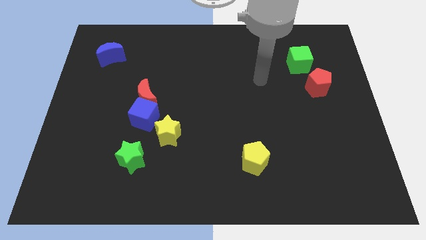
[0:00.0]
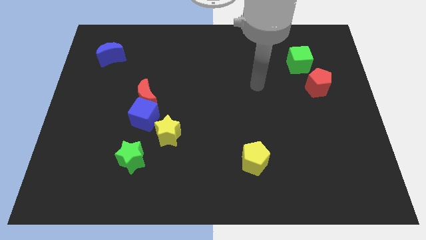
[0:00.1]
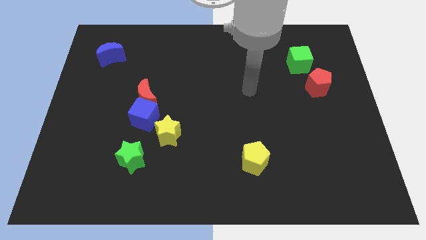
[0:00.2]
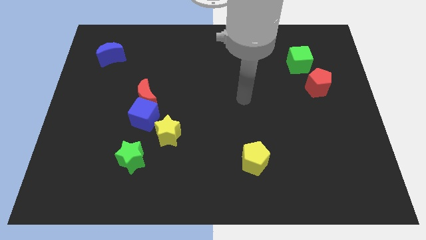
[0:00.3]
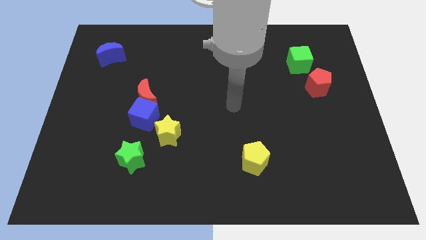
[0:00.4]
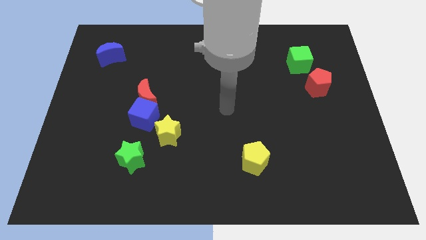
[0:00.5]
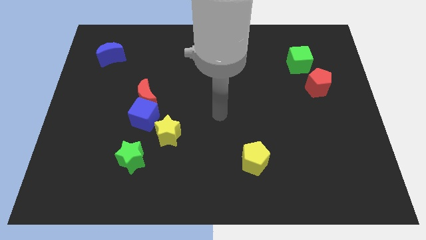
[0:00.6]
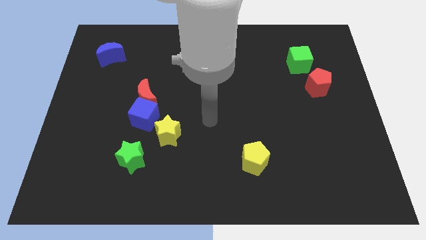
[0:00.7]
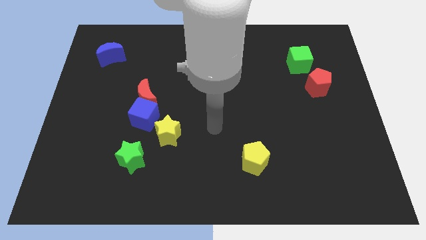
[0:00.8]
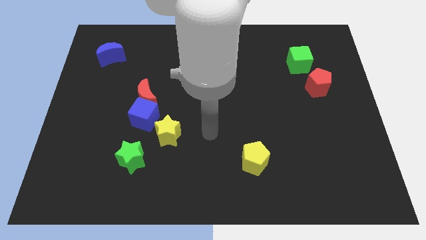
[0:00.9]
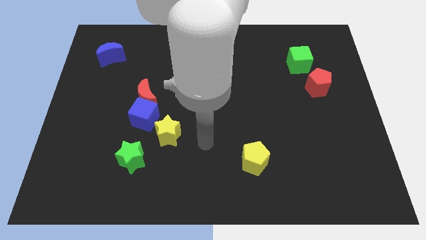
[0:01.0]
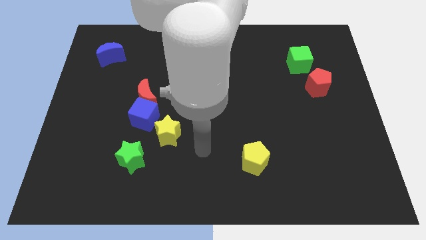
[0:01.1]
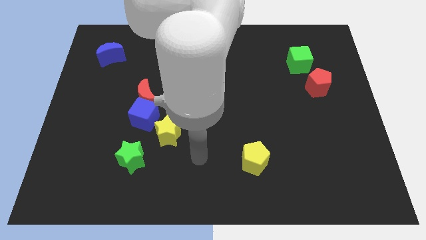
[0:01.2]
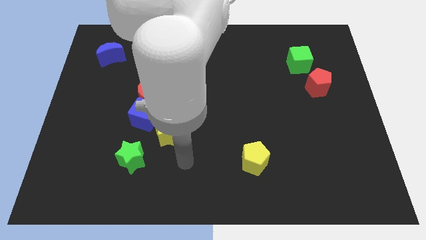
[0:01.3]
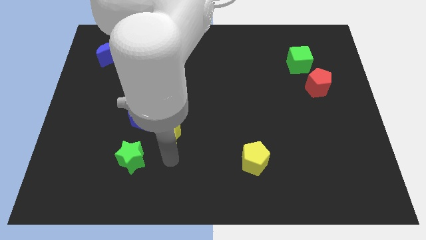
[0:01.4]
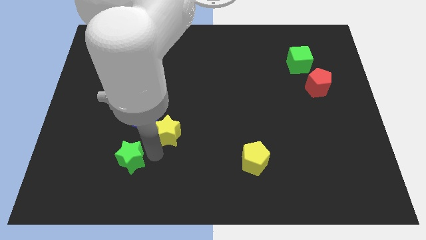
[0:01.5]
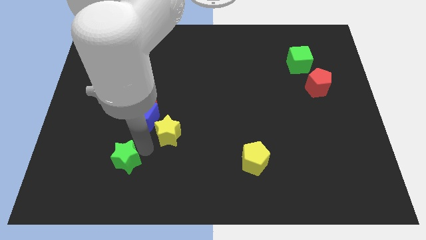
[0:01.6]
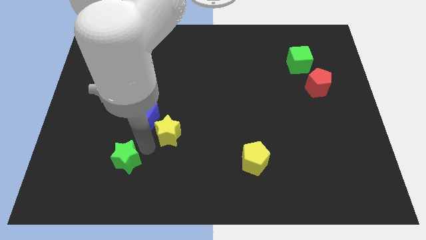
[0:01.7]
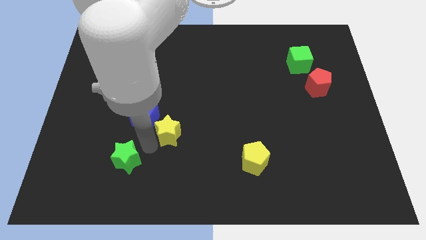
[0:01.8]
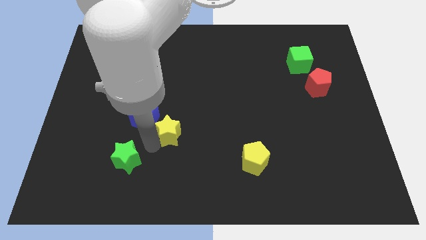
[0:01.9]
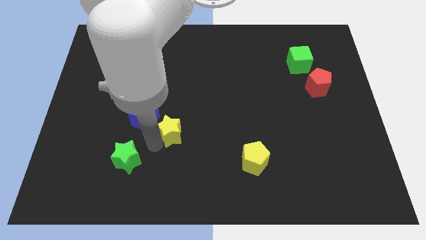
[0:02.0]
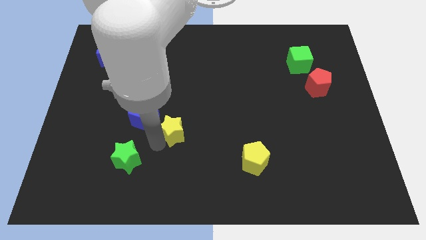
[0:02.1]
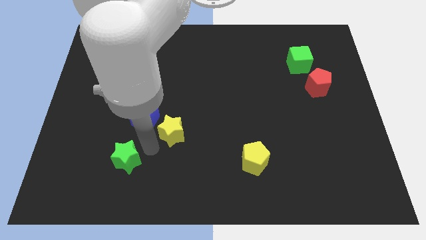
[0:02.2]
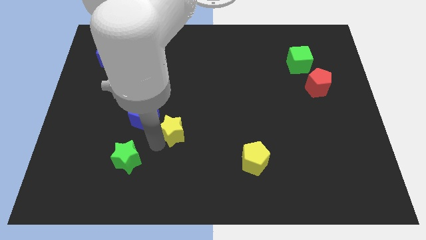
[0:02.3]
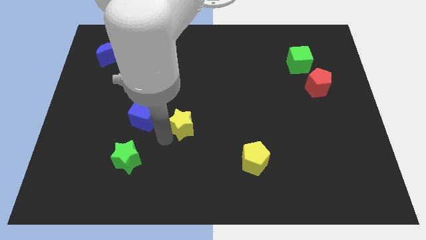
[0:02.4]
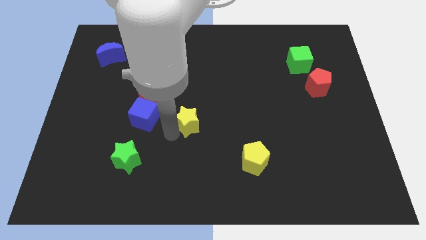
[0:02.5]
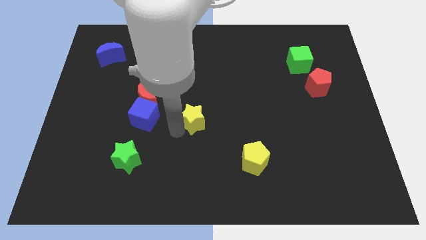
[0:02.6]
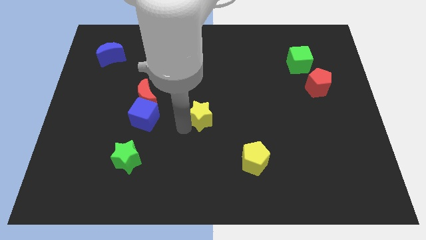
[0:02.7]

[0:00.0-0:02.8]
push the yellow star up and right a little

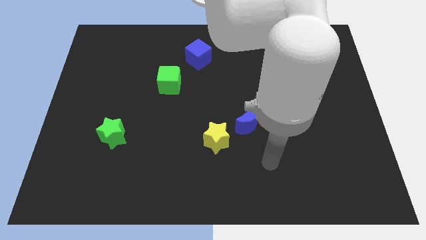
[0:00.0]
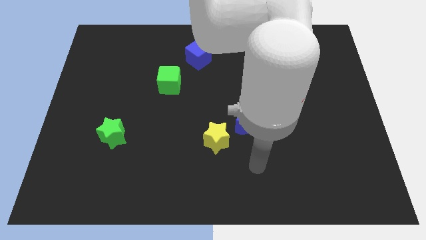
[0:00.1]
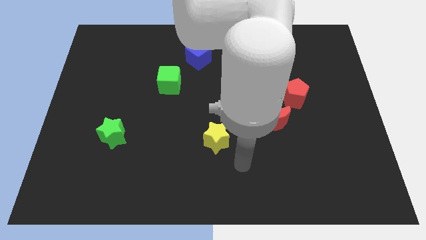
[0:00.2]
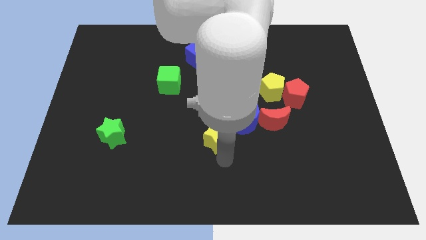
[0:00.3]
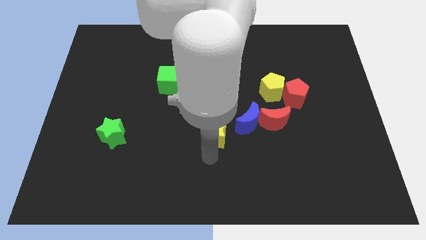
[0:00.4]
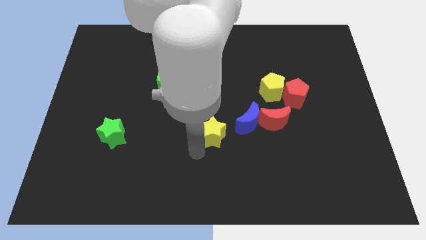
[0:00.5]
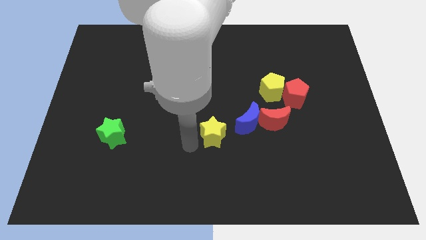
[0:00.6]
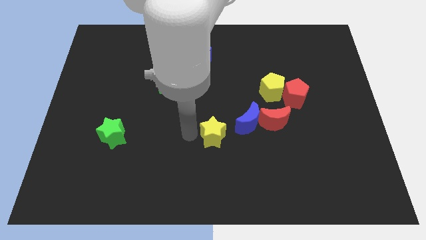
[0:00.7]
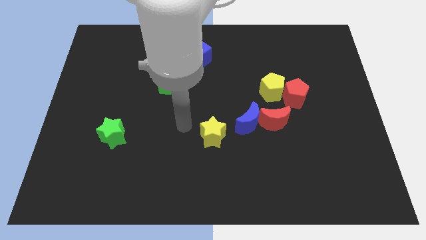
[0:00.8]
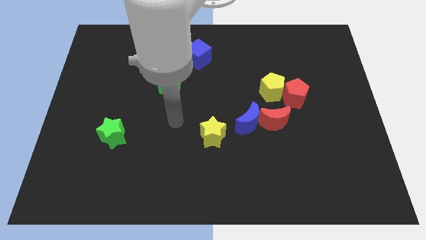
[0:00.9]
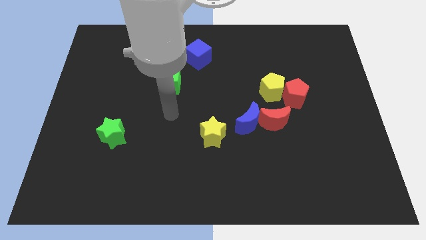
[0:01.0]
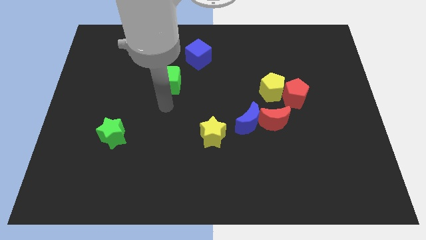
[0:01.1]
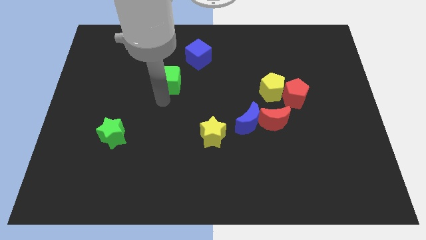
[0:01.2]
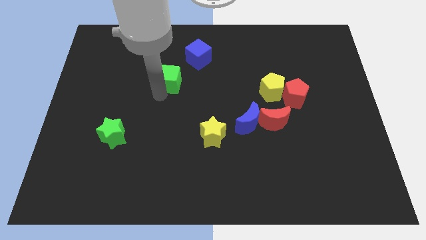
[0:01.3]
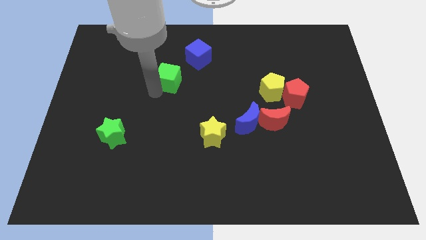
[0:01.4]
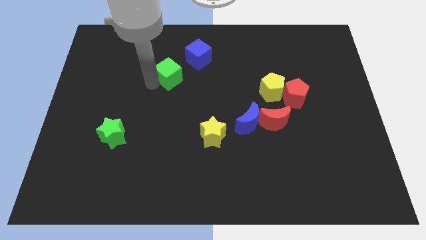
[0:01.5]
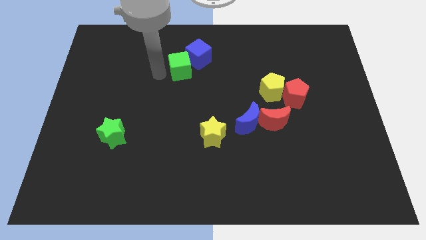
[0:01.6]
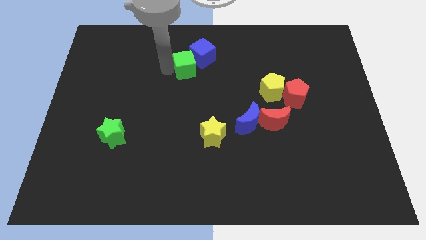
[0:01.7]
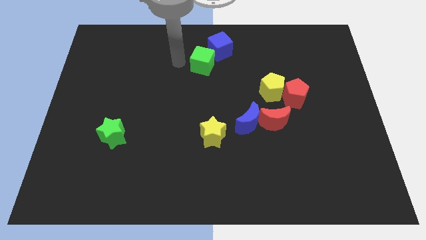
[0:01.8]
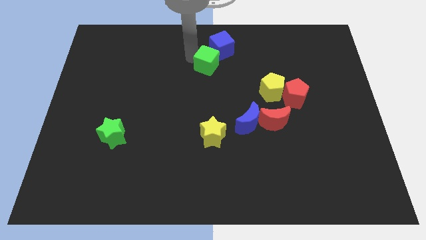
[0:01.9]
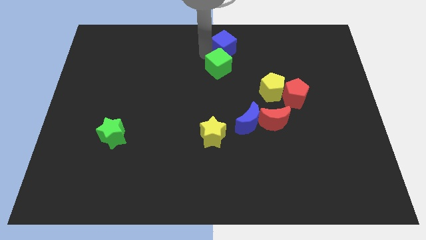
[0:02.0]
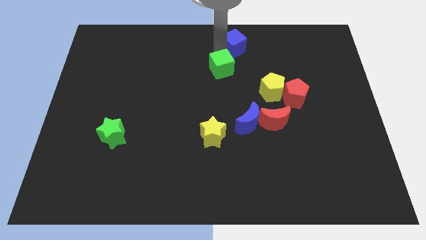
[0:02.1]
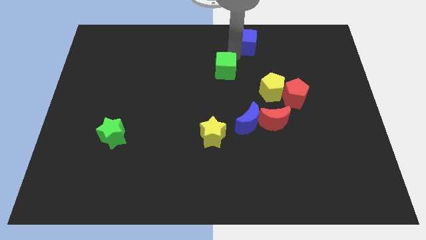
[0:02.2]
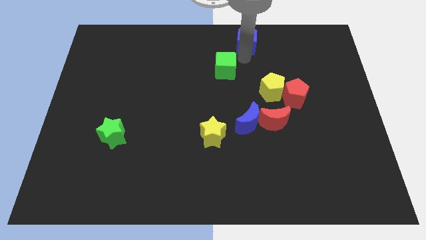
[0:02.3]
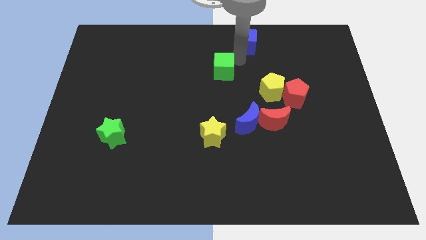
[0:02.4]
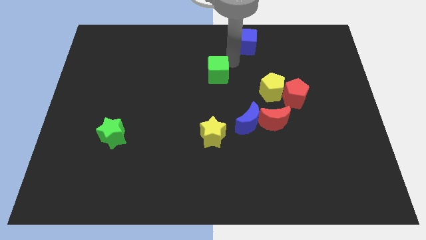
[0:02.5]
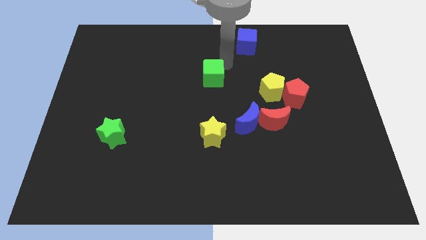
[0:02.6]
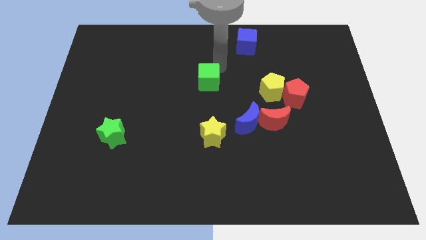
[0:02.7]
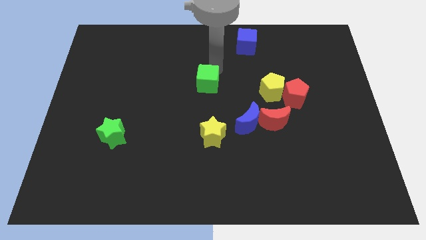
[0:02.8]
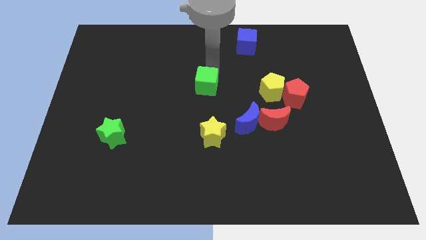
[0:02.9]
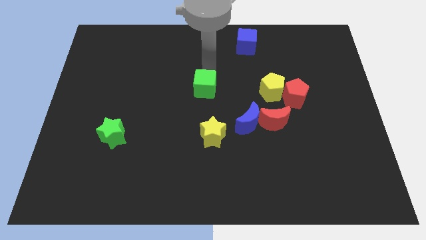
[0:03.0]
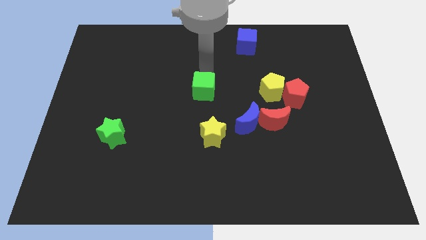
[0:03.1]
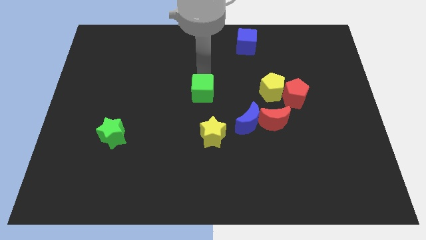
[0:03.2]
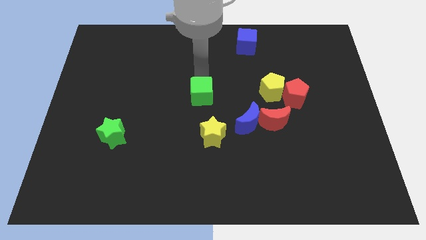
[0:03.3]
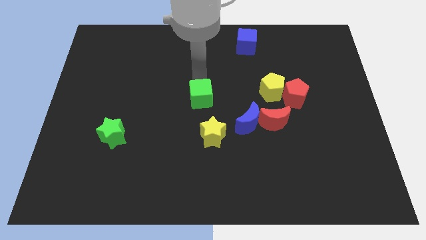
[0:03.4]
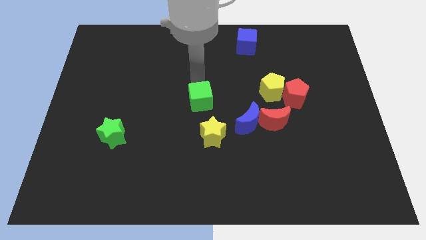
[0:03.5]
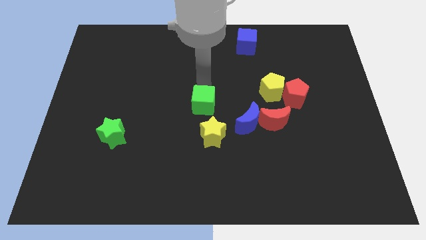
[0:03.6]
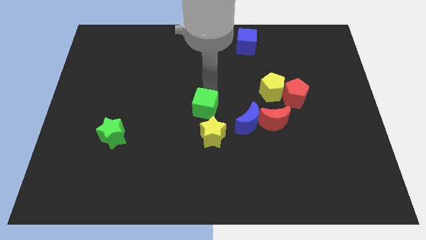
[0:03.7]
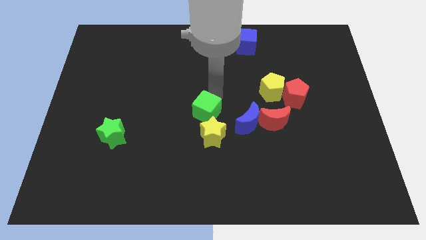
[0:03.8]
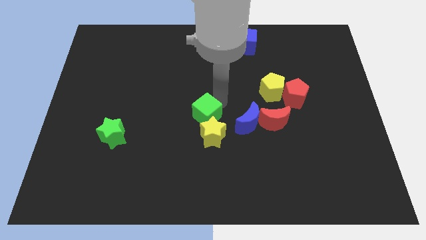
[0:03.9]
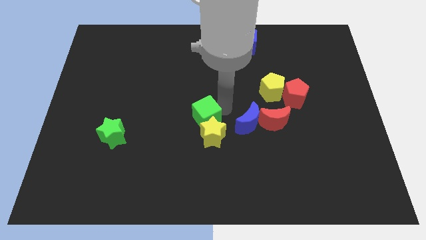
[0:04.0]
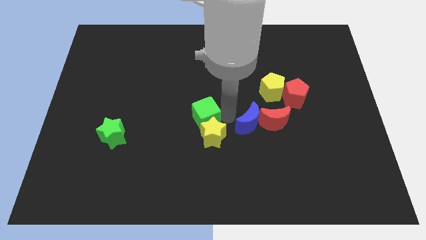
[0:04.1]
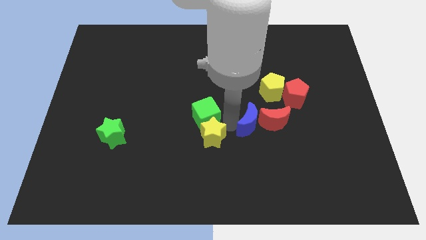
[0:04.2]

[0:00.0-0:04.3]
slide the green cube down a bit

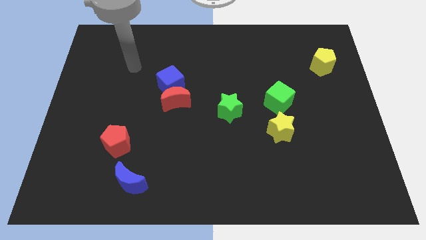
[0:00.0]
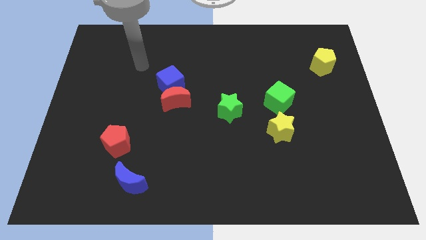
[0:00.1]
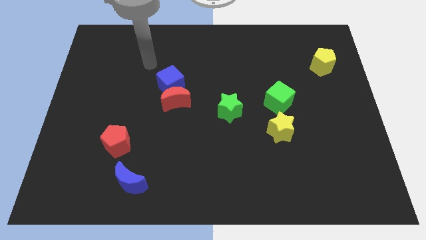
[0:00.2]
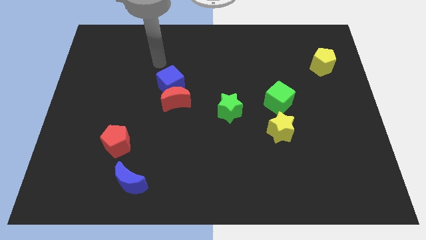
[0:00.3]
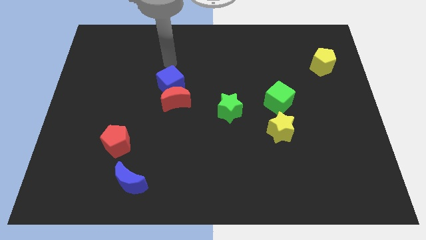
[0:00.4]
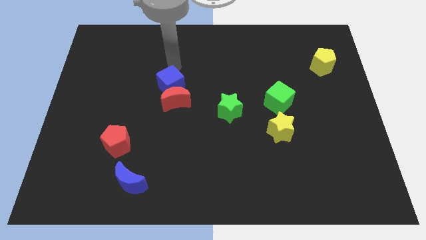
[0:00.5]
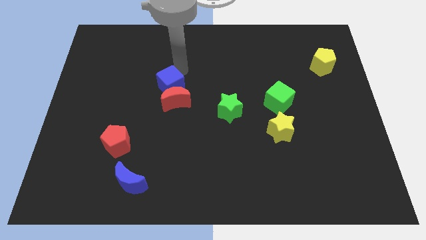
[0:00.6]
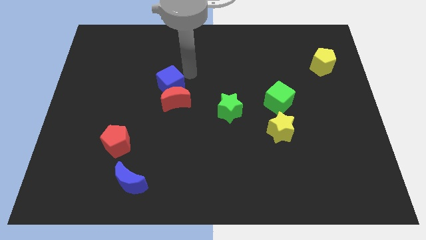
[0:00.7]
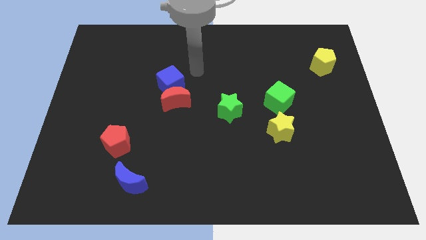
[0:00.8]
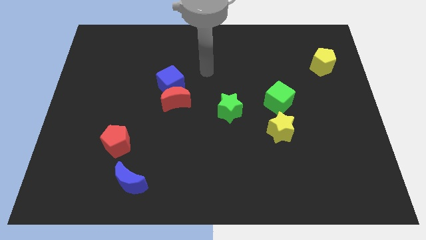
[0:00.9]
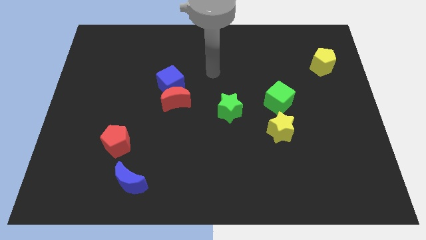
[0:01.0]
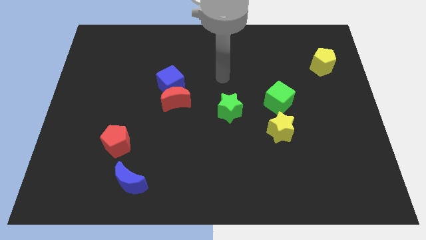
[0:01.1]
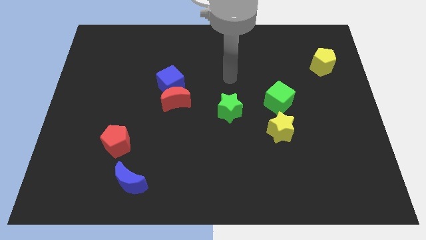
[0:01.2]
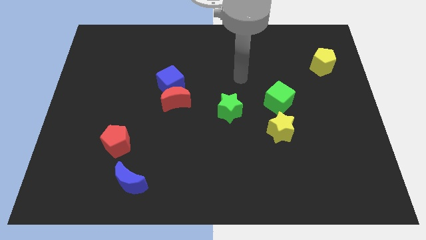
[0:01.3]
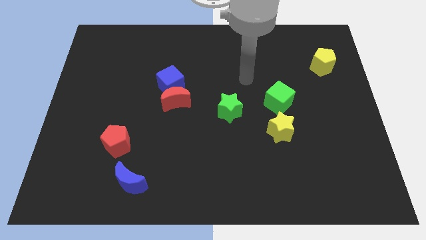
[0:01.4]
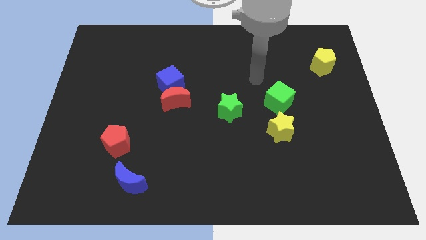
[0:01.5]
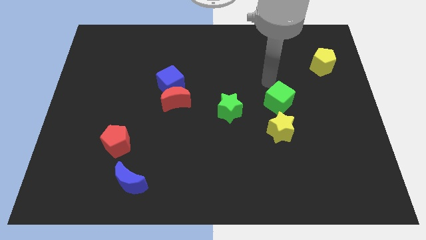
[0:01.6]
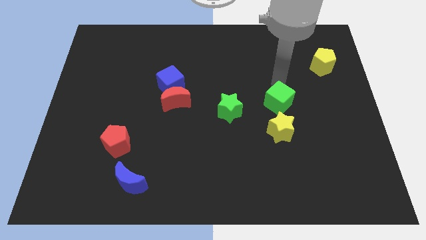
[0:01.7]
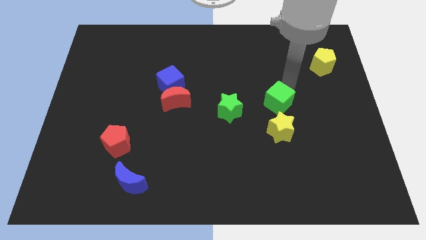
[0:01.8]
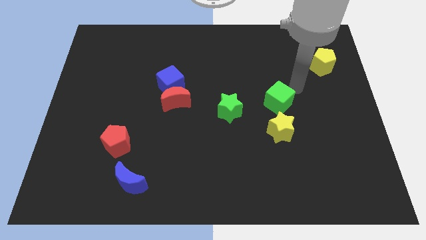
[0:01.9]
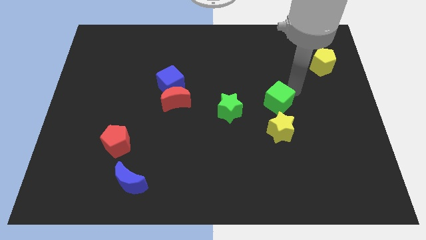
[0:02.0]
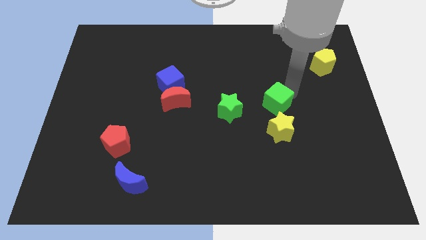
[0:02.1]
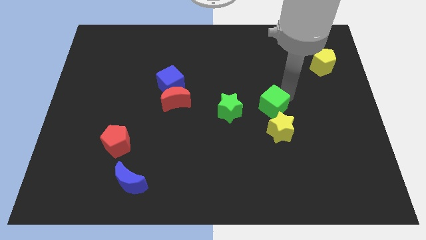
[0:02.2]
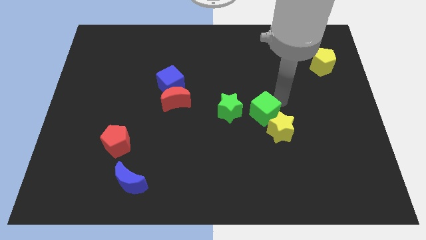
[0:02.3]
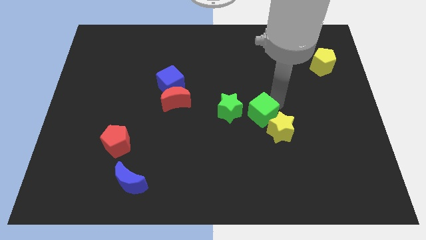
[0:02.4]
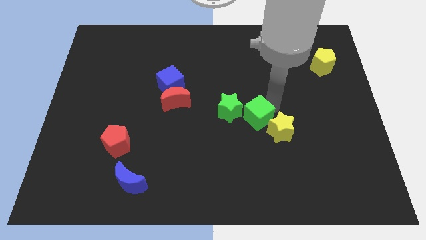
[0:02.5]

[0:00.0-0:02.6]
slightly move the green cube down and to the left
